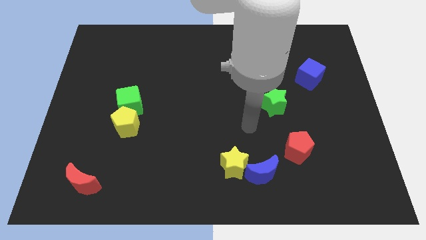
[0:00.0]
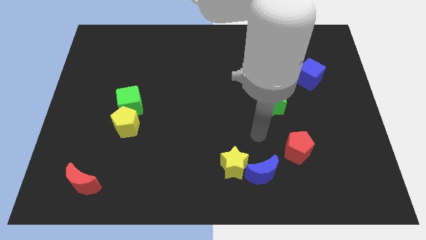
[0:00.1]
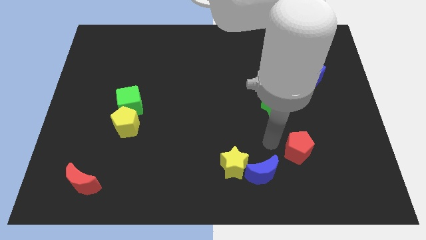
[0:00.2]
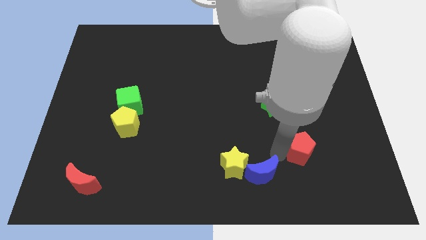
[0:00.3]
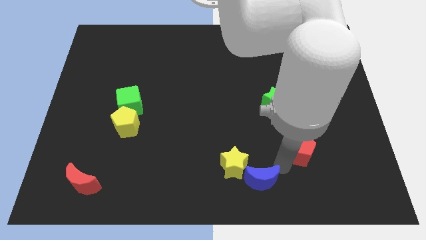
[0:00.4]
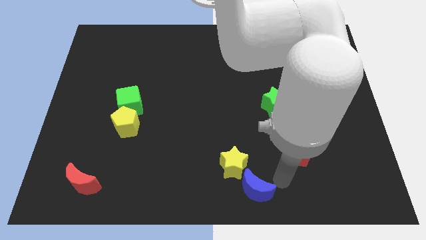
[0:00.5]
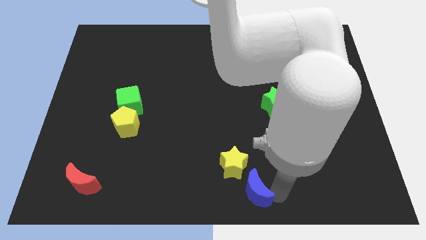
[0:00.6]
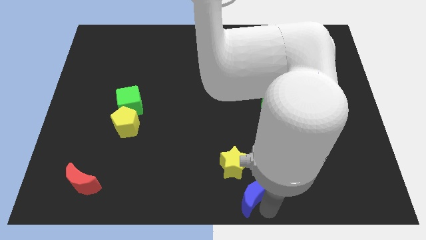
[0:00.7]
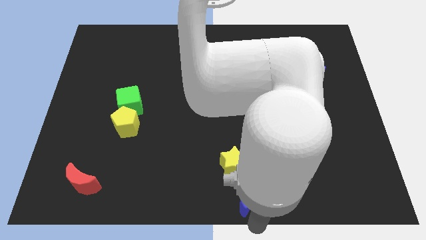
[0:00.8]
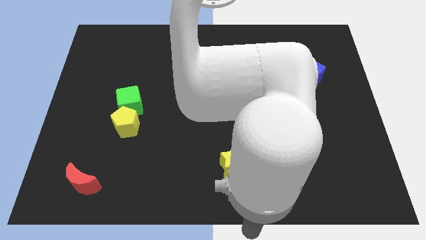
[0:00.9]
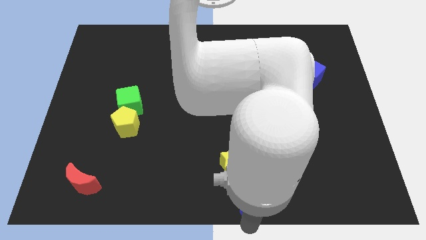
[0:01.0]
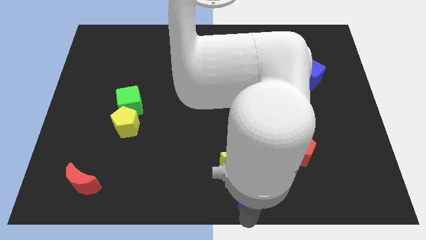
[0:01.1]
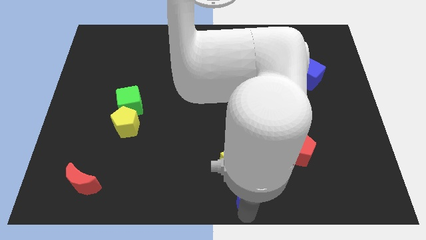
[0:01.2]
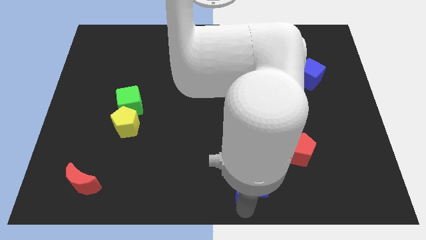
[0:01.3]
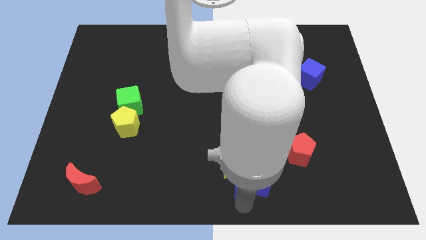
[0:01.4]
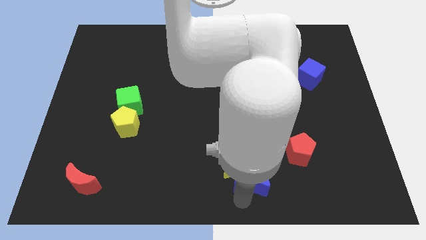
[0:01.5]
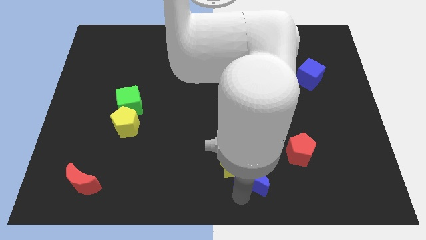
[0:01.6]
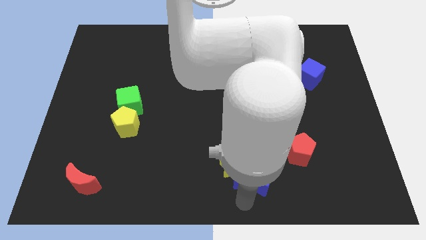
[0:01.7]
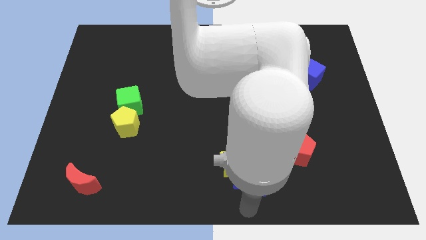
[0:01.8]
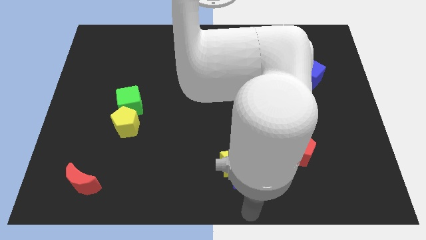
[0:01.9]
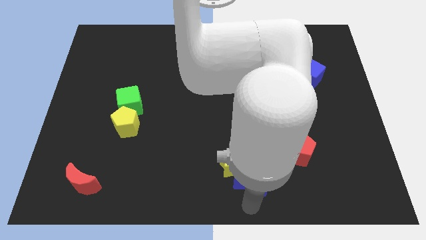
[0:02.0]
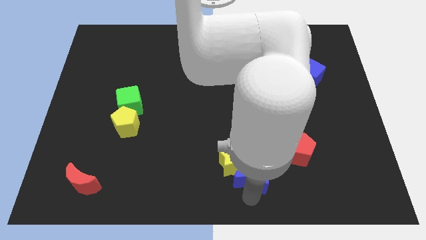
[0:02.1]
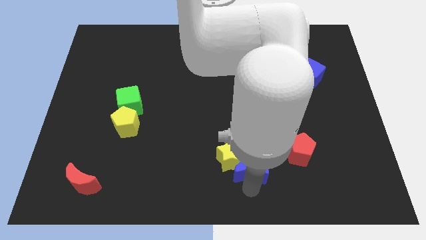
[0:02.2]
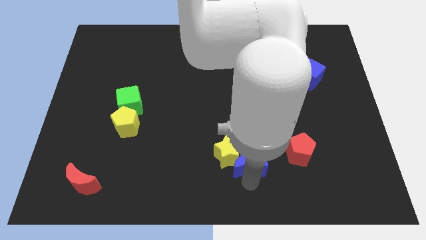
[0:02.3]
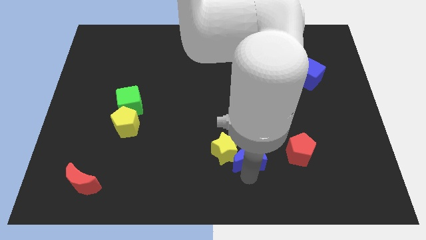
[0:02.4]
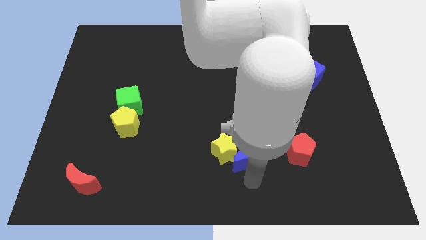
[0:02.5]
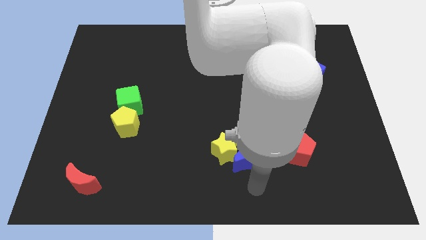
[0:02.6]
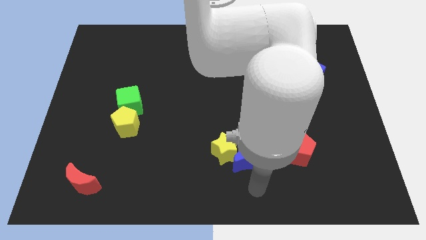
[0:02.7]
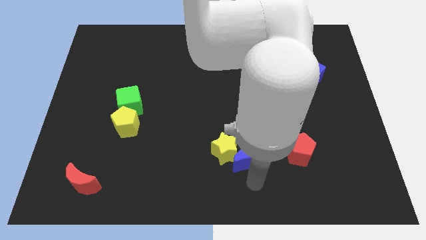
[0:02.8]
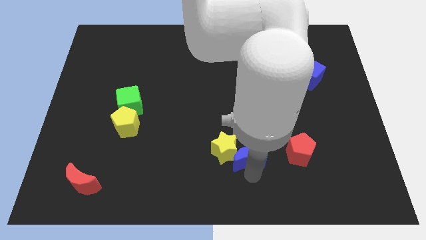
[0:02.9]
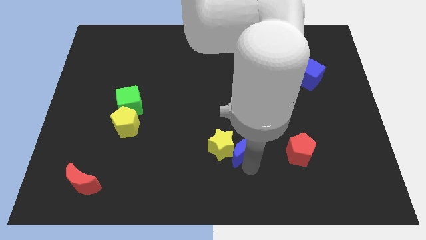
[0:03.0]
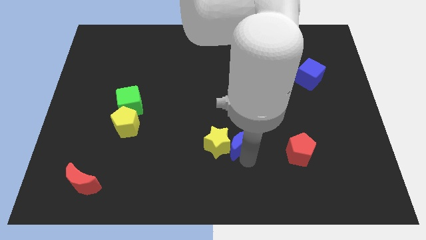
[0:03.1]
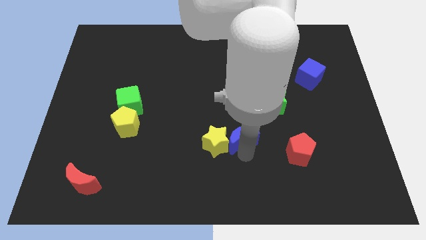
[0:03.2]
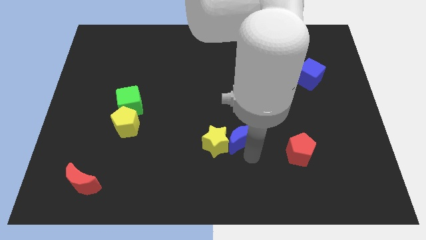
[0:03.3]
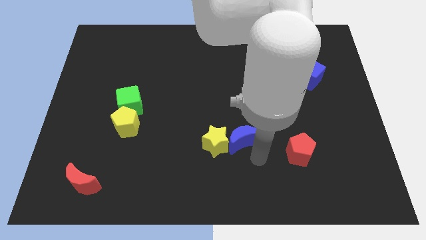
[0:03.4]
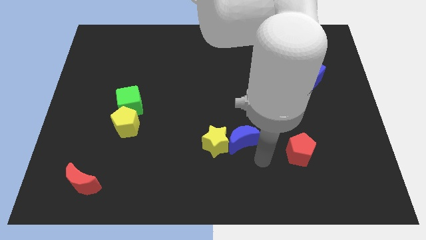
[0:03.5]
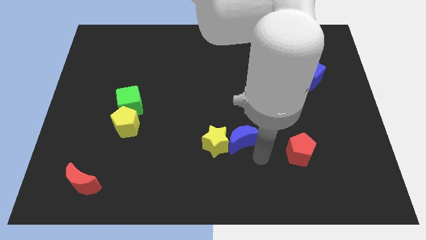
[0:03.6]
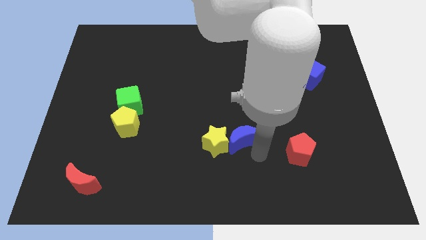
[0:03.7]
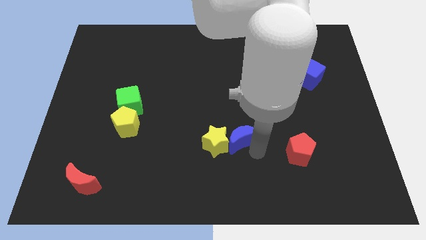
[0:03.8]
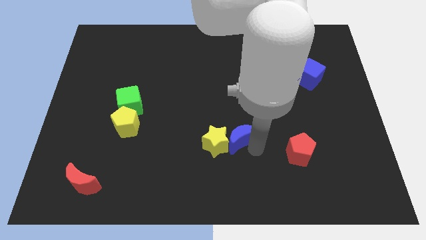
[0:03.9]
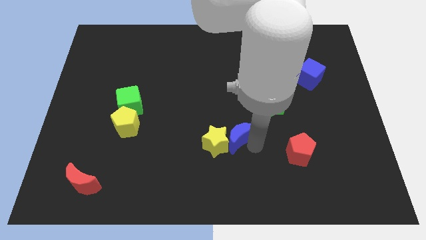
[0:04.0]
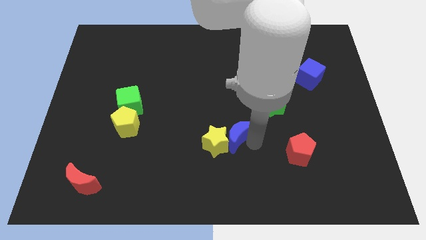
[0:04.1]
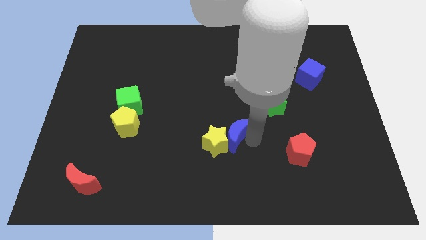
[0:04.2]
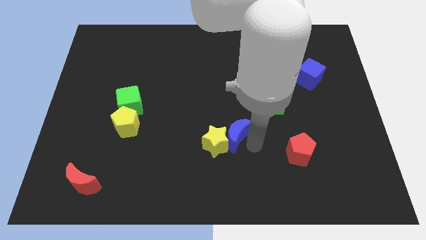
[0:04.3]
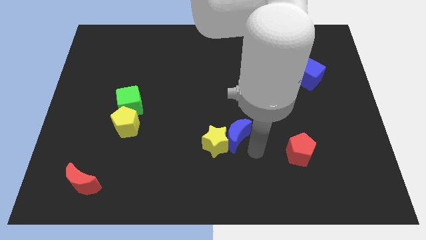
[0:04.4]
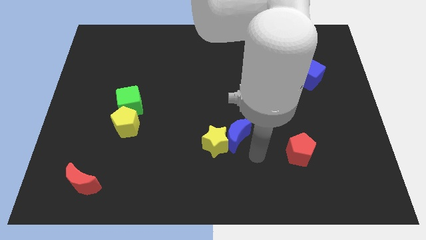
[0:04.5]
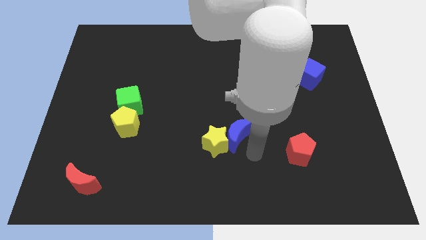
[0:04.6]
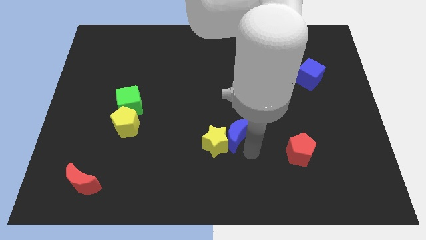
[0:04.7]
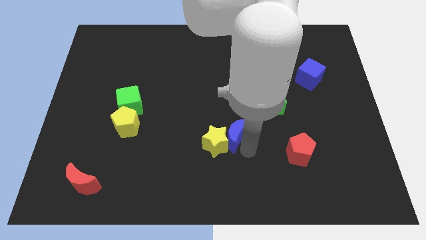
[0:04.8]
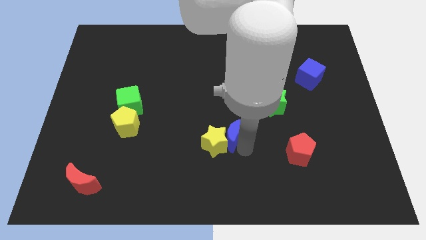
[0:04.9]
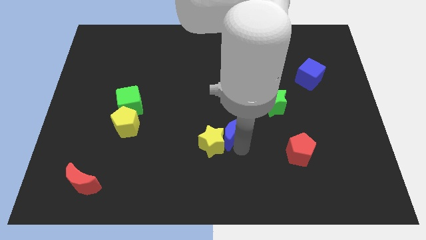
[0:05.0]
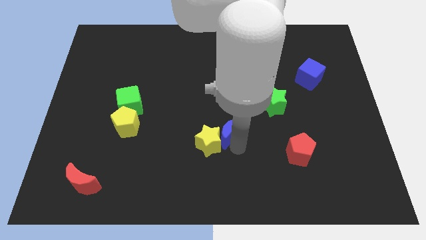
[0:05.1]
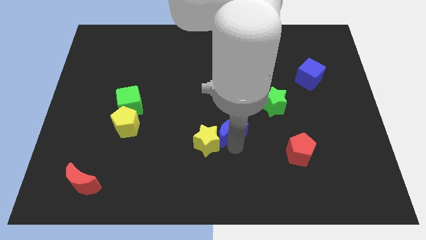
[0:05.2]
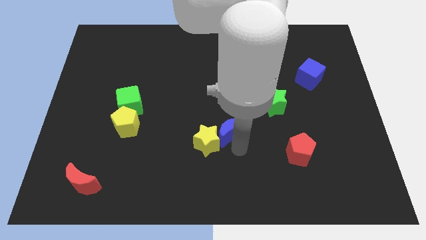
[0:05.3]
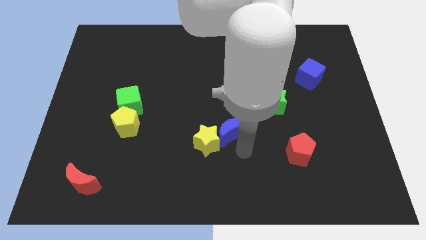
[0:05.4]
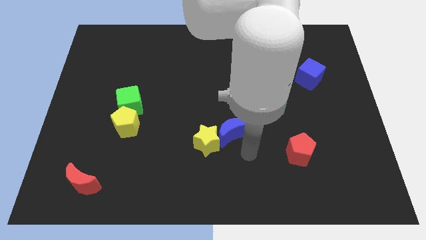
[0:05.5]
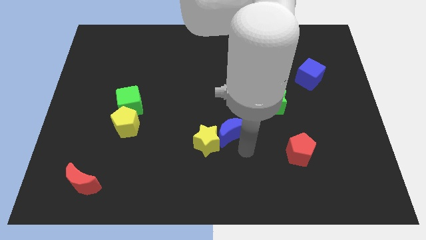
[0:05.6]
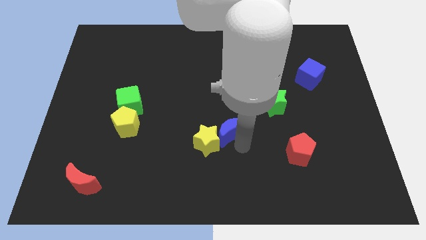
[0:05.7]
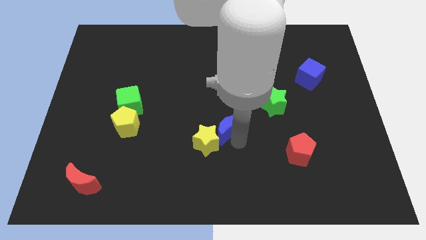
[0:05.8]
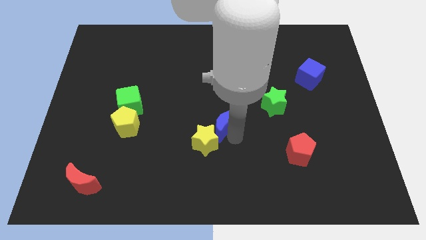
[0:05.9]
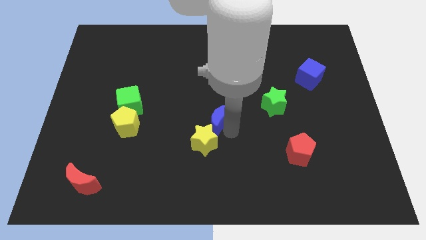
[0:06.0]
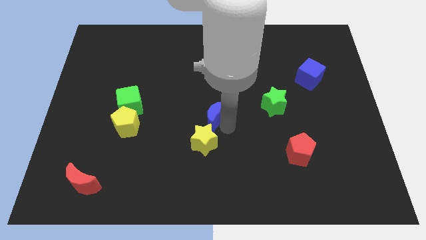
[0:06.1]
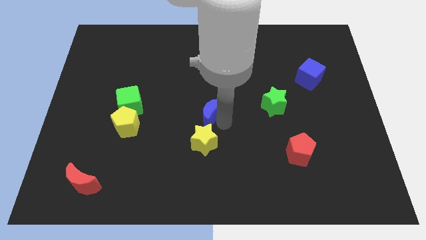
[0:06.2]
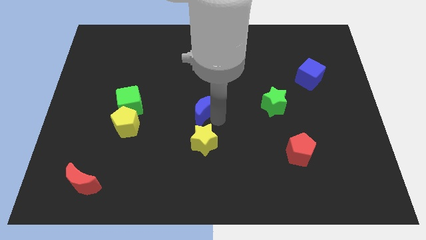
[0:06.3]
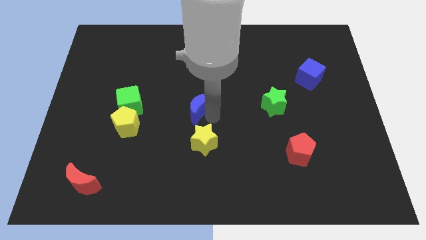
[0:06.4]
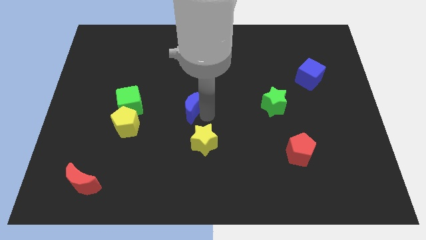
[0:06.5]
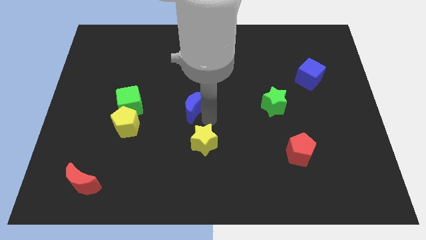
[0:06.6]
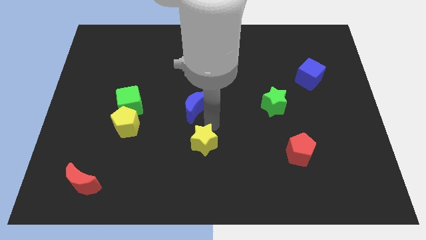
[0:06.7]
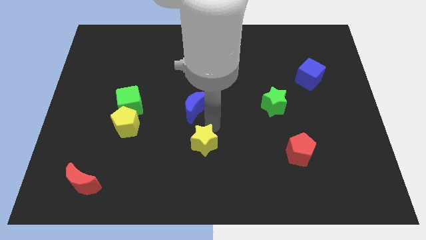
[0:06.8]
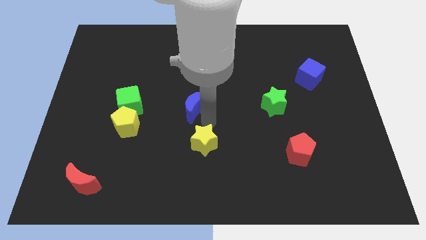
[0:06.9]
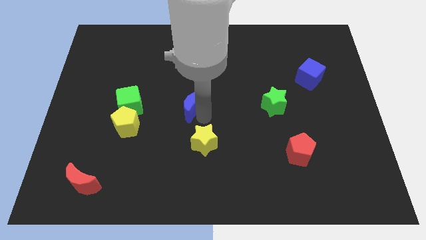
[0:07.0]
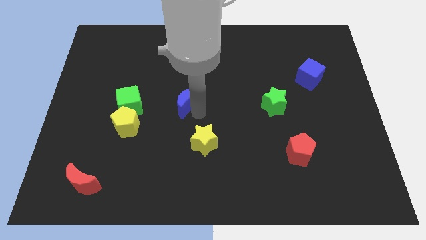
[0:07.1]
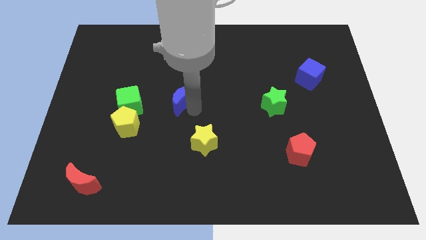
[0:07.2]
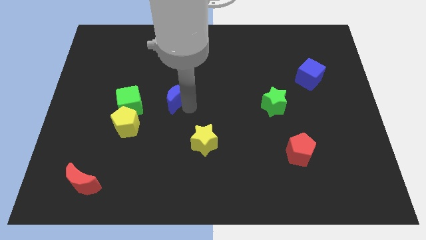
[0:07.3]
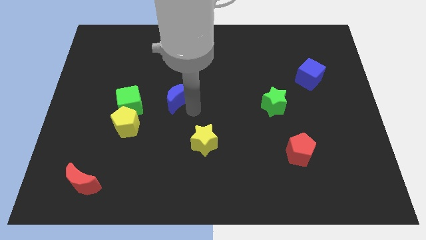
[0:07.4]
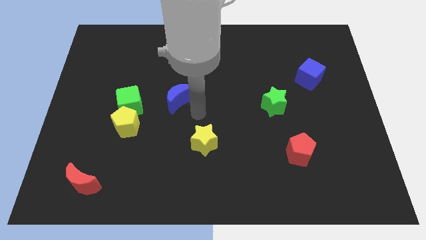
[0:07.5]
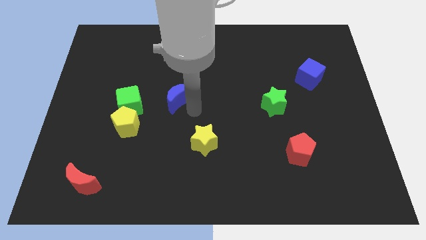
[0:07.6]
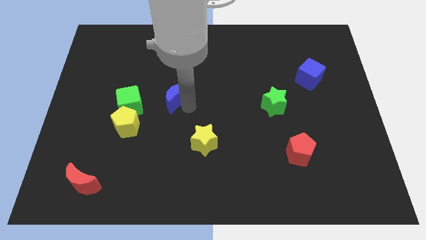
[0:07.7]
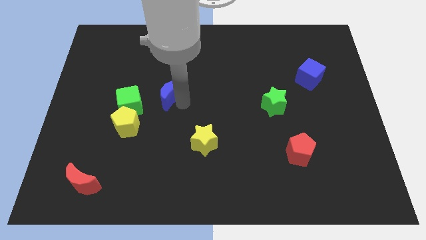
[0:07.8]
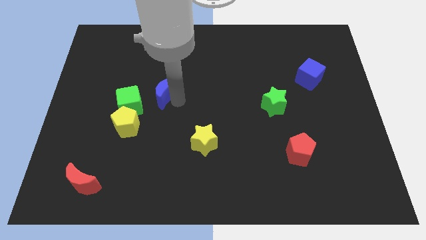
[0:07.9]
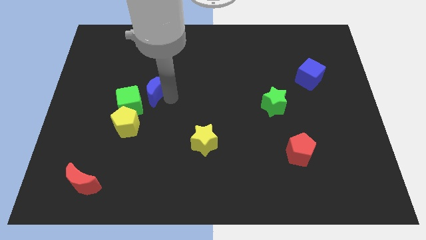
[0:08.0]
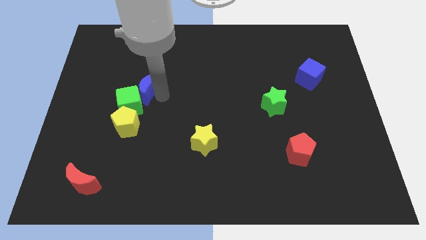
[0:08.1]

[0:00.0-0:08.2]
put the blue moon to the top of the green cube
